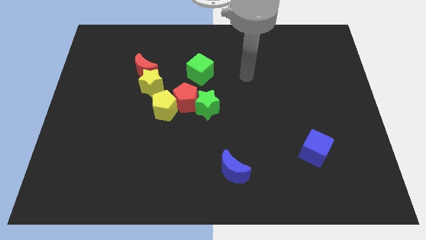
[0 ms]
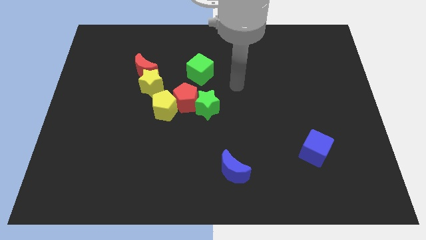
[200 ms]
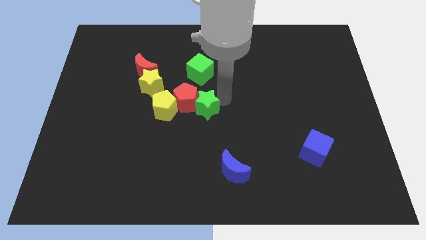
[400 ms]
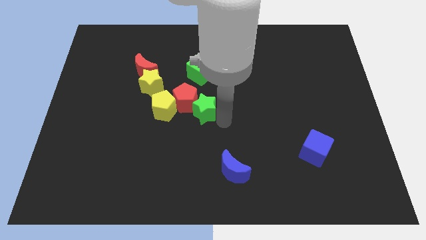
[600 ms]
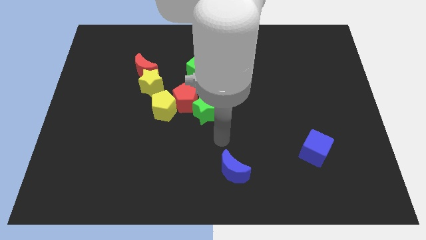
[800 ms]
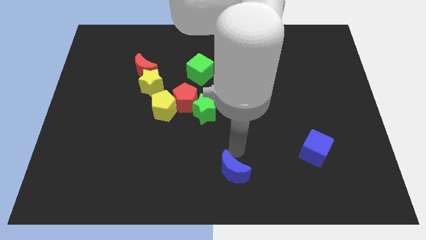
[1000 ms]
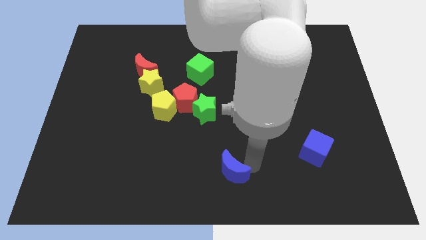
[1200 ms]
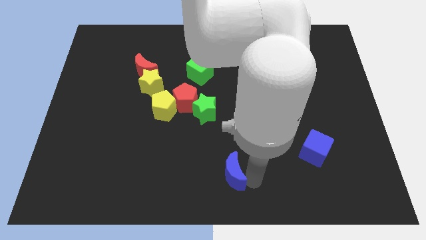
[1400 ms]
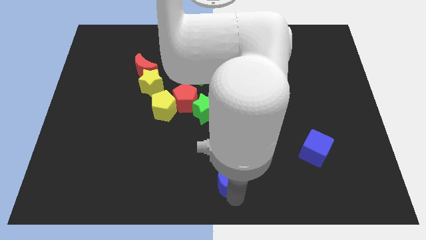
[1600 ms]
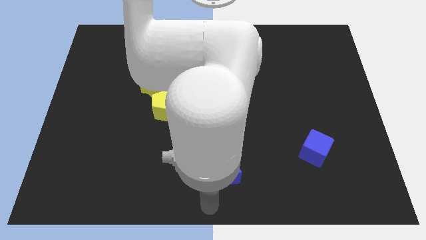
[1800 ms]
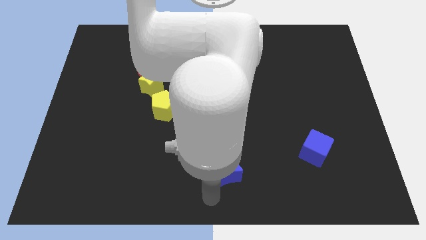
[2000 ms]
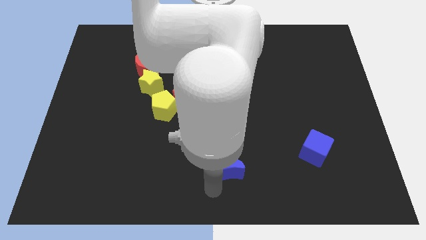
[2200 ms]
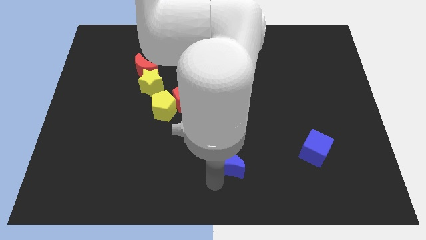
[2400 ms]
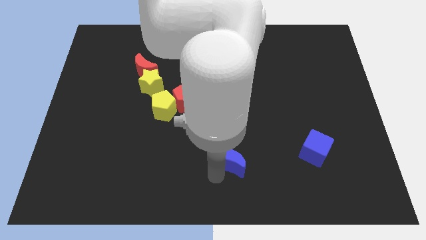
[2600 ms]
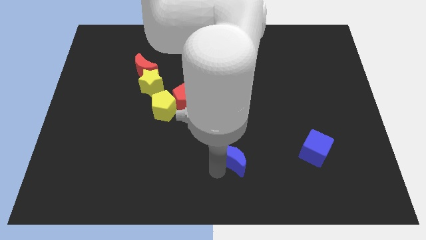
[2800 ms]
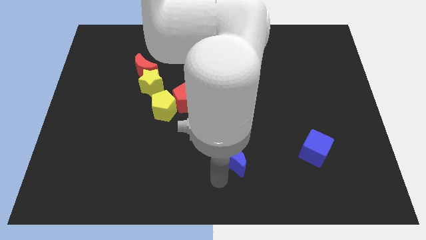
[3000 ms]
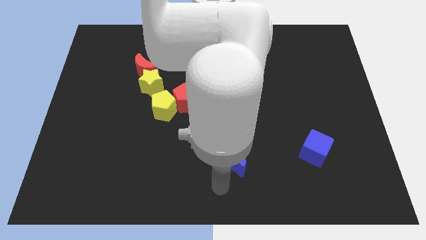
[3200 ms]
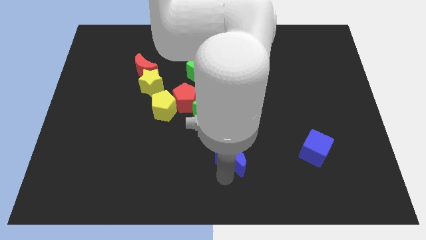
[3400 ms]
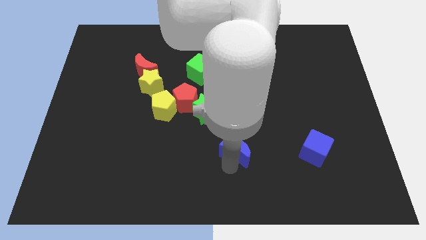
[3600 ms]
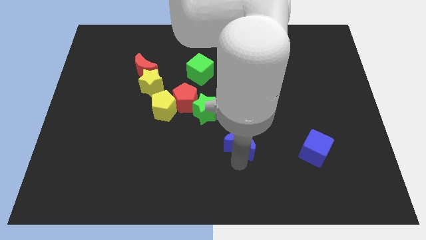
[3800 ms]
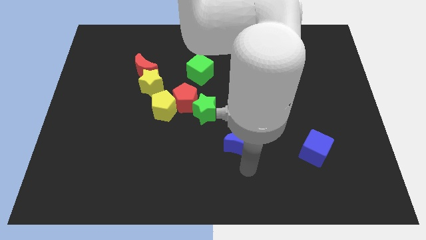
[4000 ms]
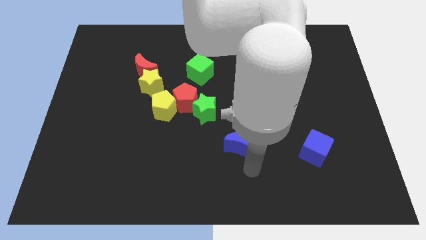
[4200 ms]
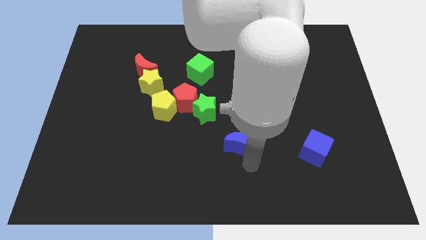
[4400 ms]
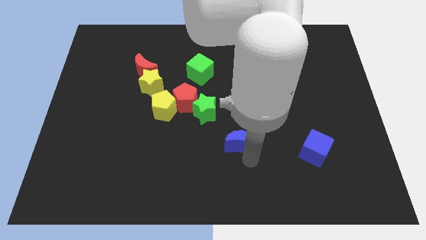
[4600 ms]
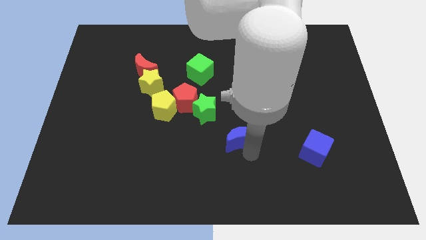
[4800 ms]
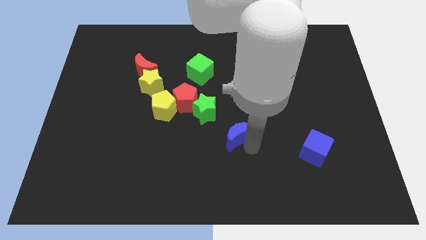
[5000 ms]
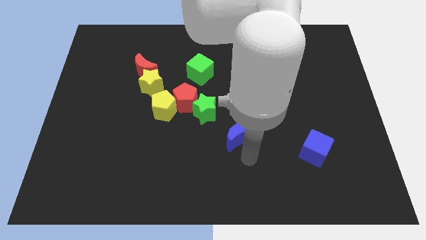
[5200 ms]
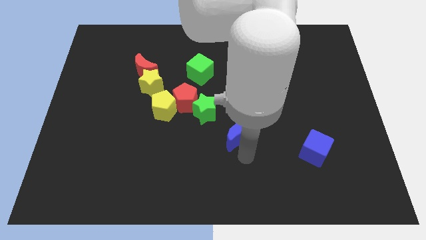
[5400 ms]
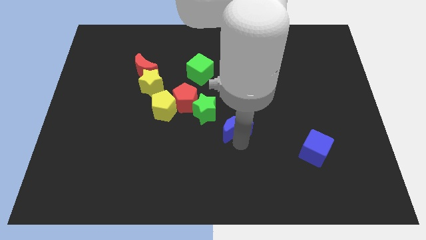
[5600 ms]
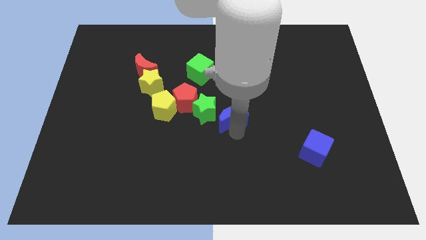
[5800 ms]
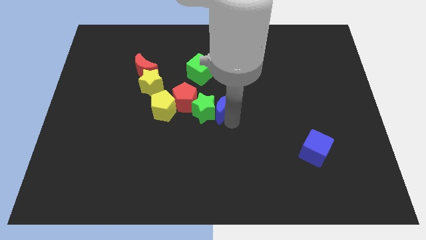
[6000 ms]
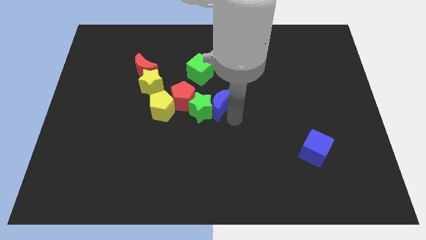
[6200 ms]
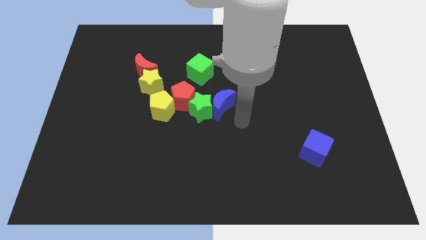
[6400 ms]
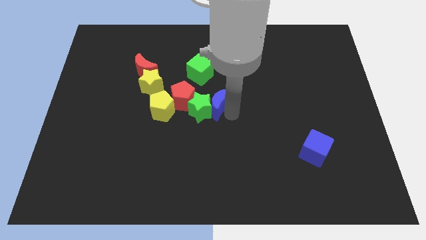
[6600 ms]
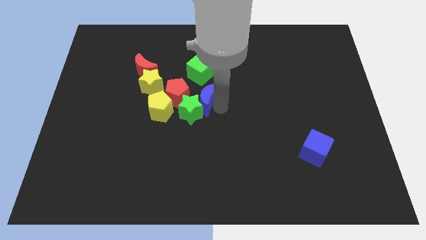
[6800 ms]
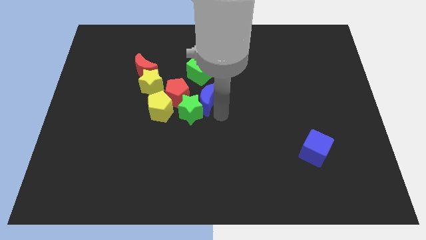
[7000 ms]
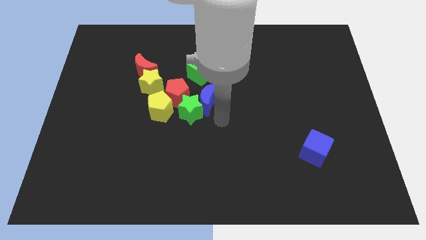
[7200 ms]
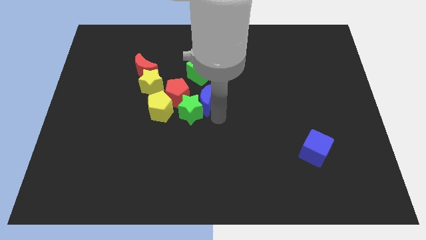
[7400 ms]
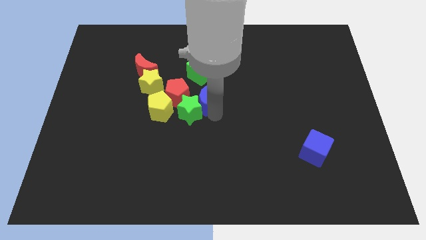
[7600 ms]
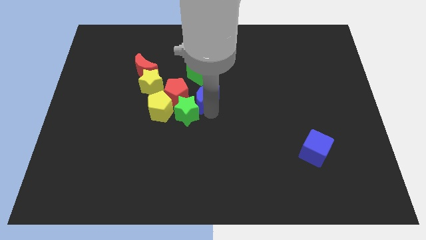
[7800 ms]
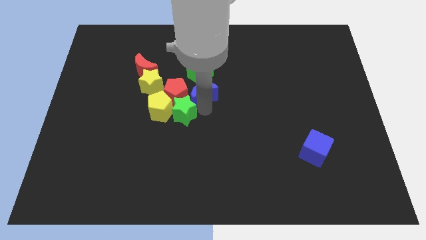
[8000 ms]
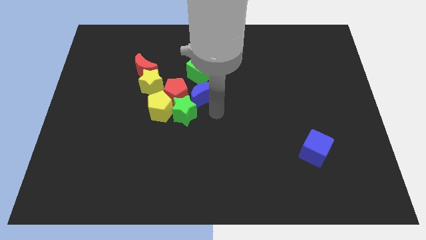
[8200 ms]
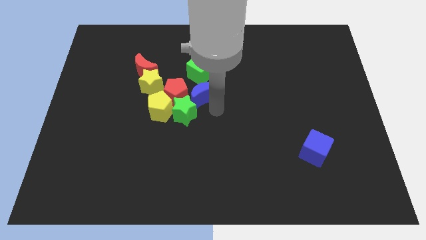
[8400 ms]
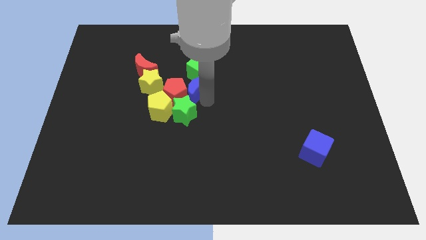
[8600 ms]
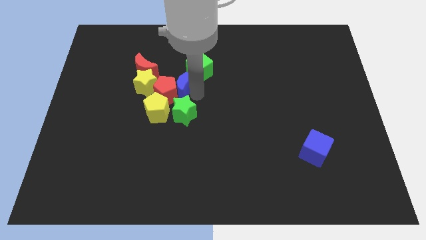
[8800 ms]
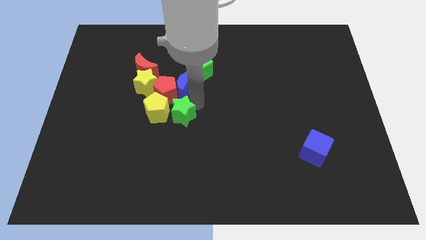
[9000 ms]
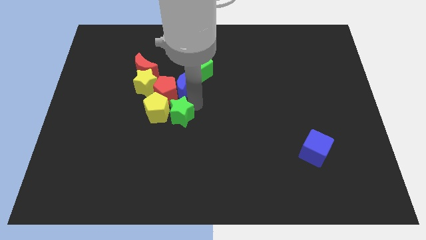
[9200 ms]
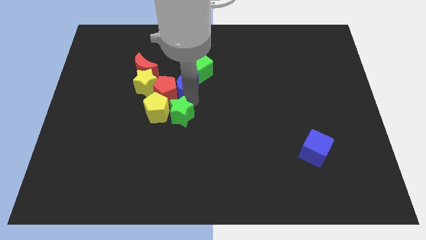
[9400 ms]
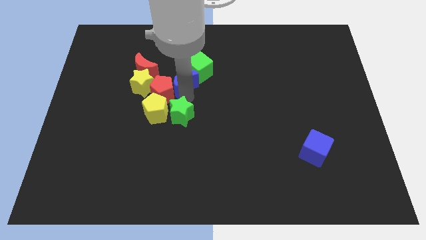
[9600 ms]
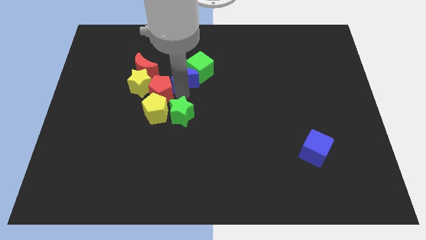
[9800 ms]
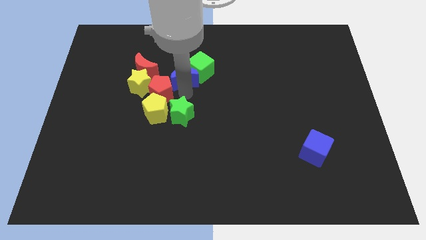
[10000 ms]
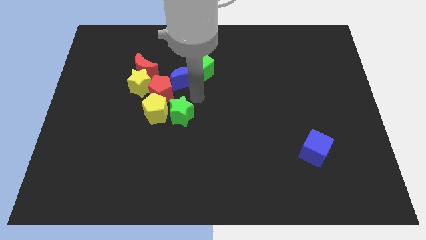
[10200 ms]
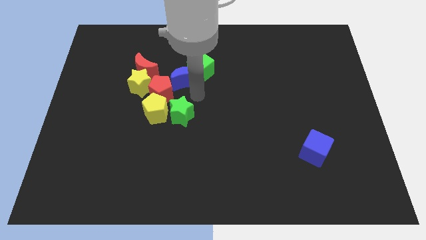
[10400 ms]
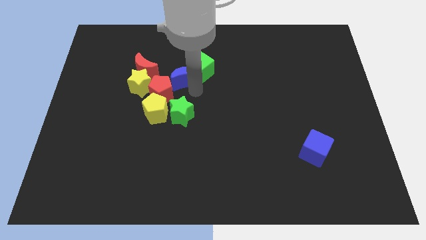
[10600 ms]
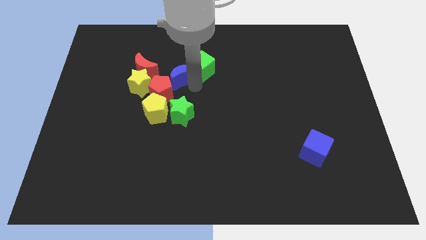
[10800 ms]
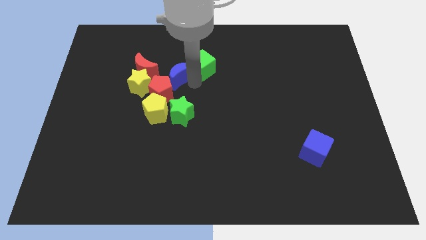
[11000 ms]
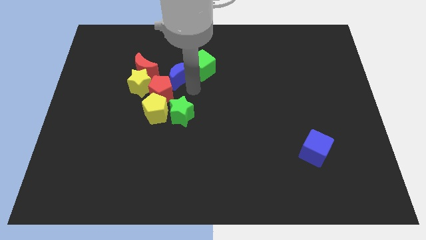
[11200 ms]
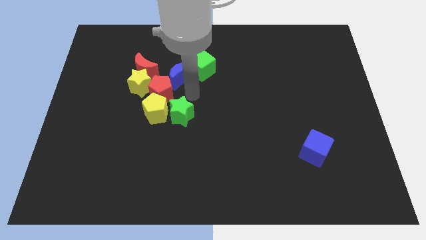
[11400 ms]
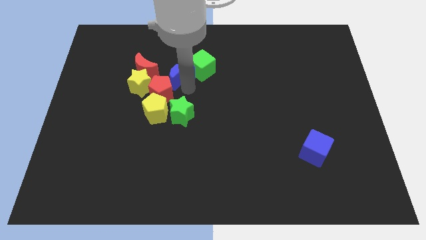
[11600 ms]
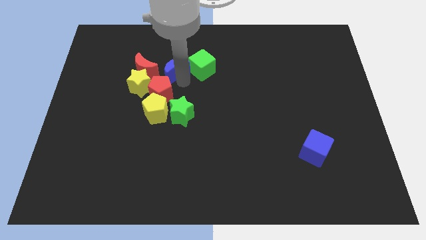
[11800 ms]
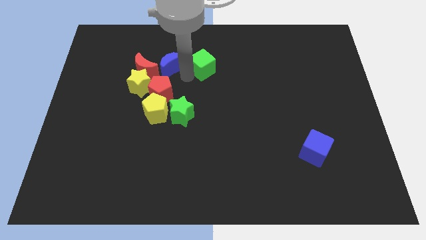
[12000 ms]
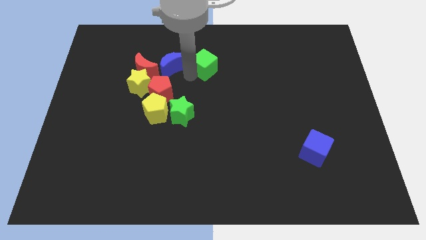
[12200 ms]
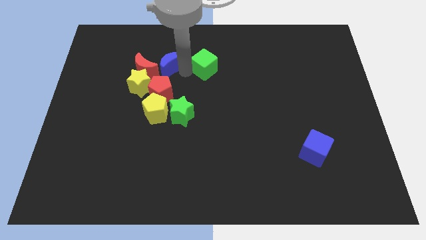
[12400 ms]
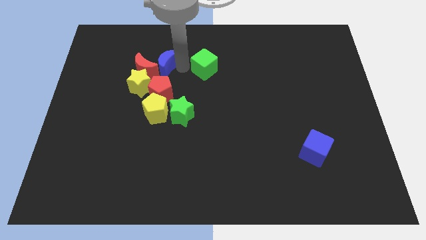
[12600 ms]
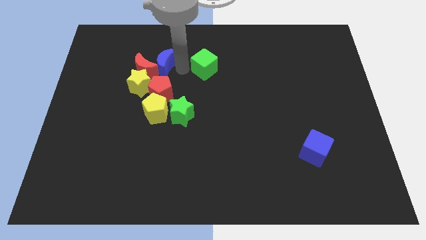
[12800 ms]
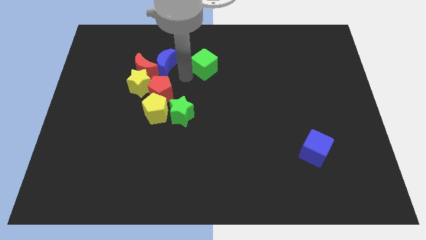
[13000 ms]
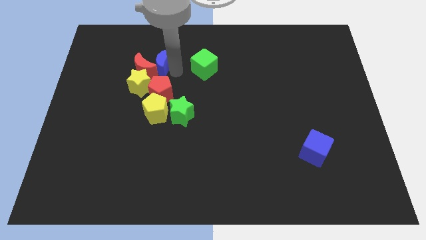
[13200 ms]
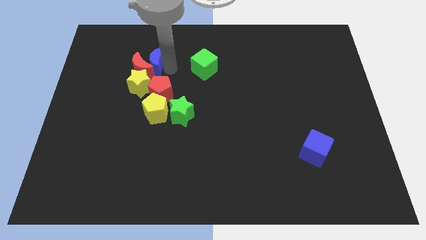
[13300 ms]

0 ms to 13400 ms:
move the blue moon to the top side of the yellow star

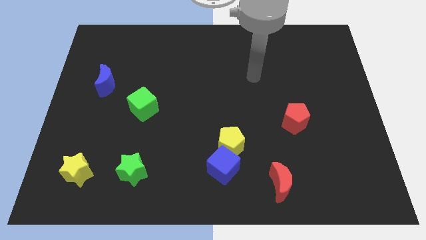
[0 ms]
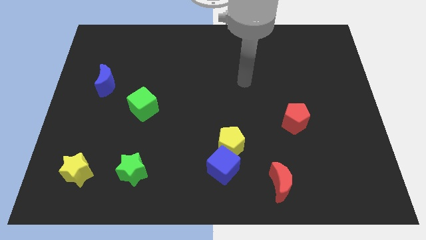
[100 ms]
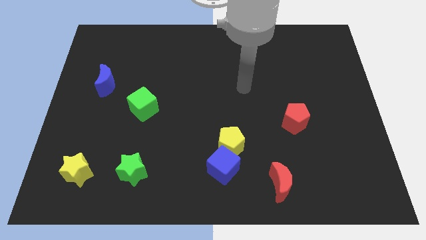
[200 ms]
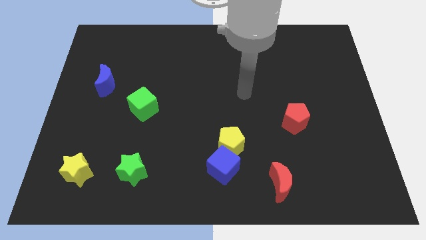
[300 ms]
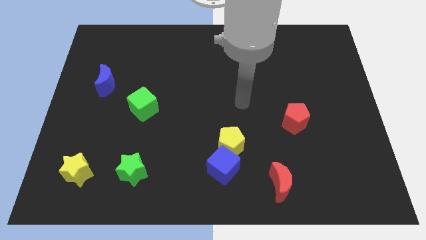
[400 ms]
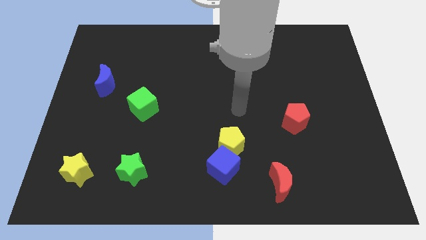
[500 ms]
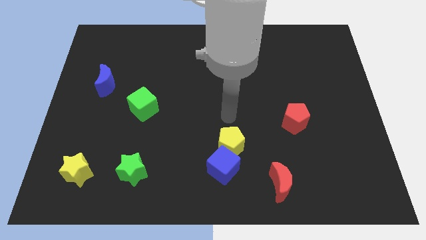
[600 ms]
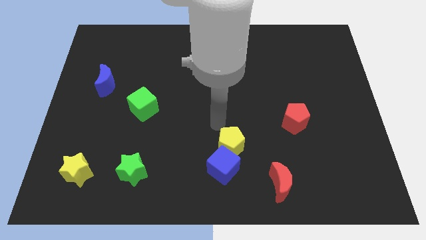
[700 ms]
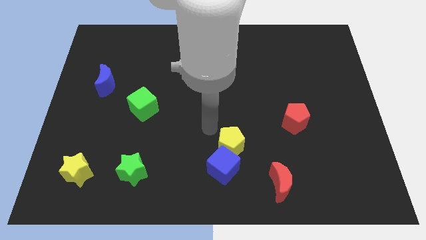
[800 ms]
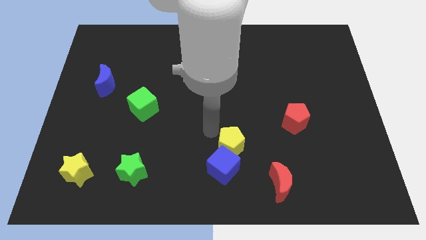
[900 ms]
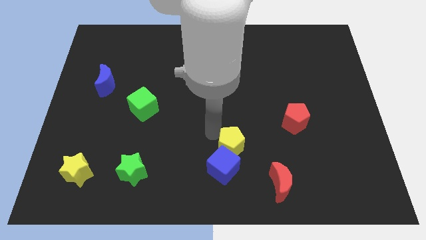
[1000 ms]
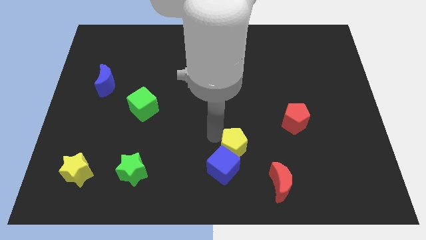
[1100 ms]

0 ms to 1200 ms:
push the yellow pentagon to the top left of the red moon
